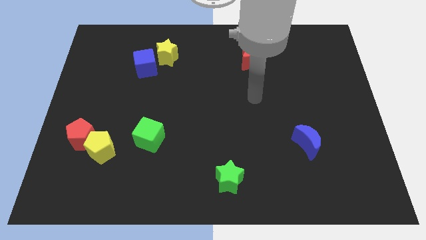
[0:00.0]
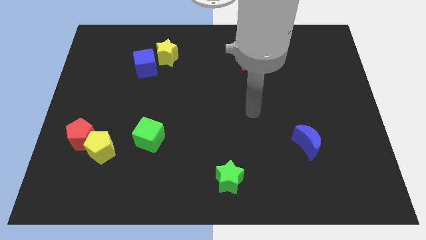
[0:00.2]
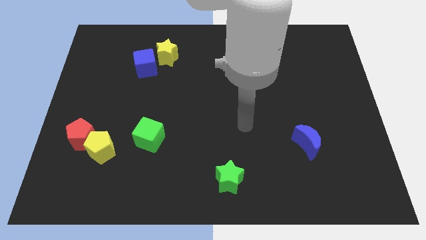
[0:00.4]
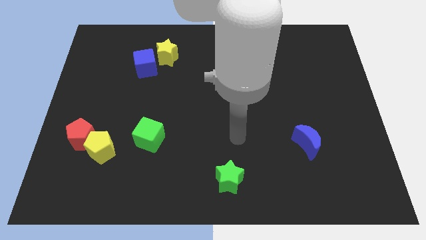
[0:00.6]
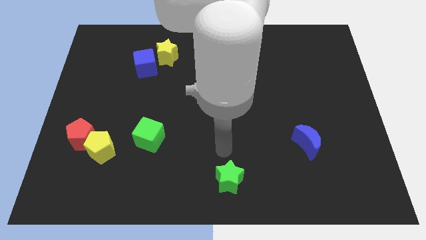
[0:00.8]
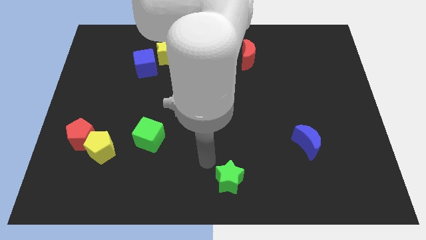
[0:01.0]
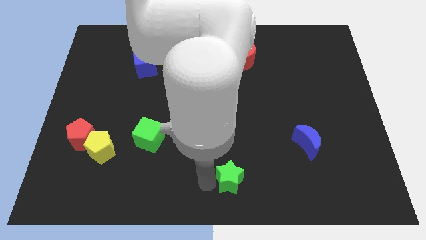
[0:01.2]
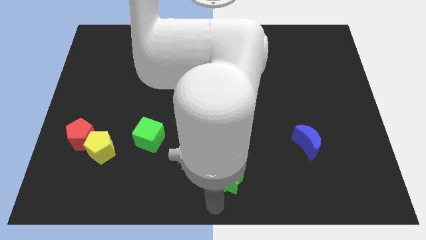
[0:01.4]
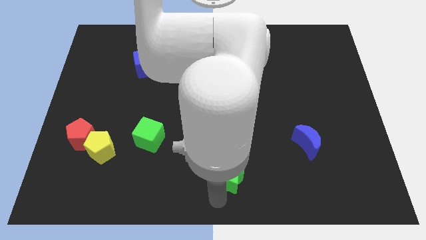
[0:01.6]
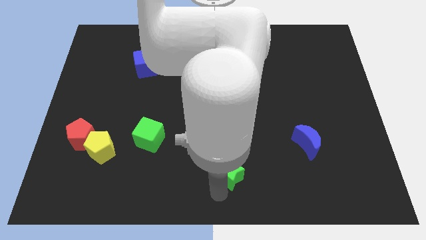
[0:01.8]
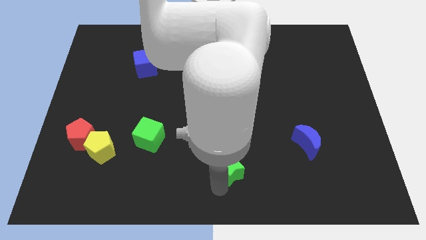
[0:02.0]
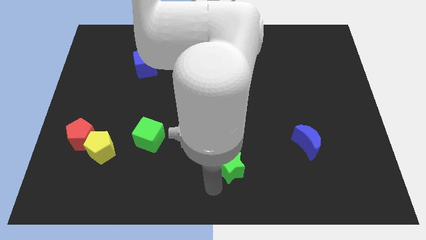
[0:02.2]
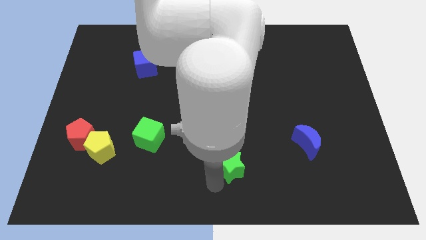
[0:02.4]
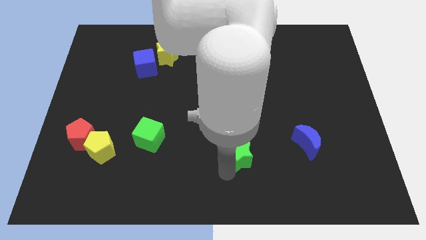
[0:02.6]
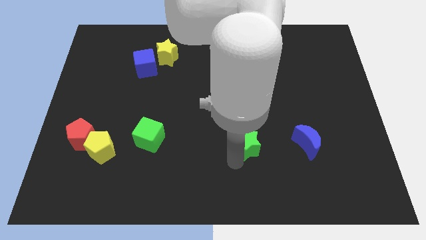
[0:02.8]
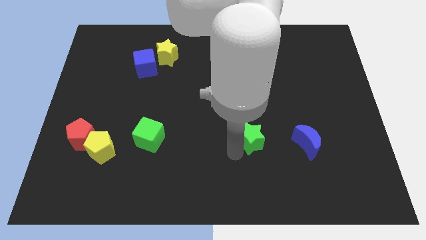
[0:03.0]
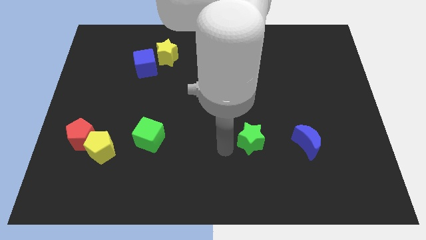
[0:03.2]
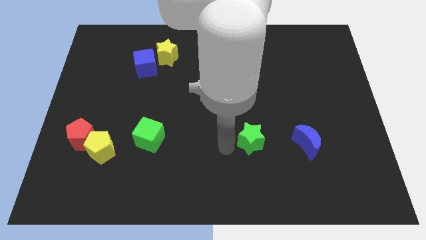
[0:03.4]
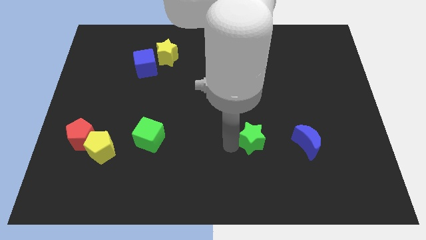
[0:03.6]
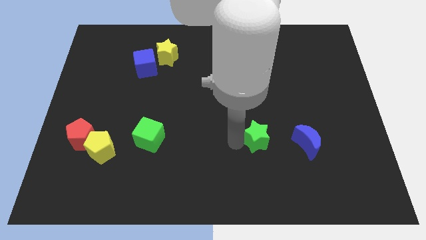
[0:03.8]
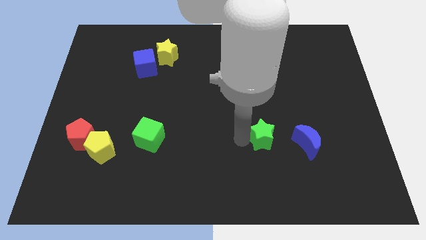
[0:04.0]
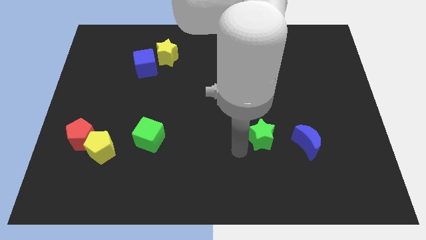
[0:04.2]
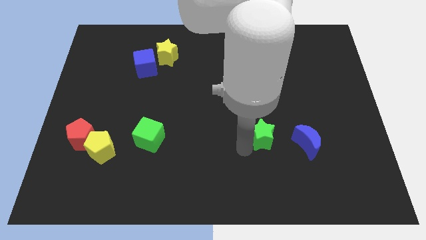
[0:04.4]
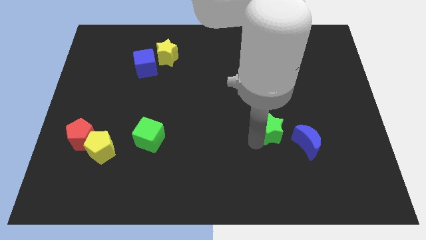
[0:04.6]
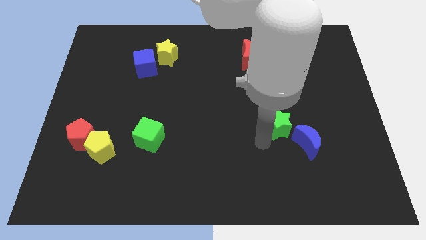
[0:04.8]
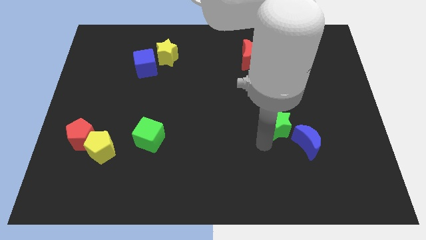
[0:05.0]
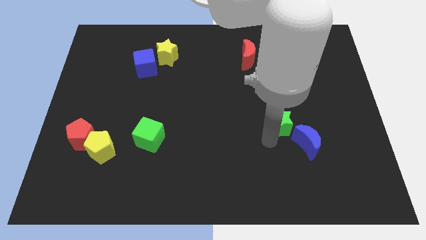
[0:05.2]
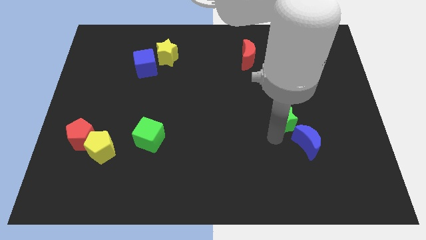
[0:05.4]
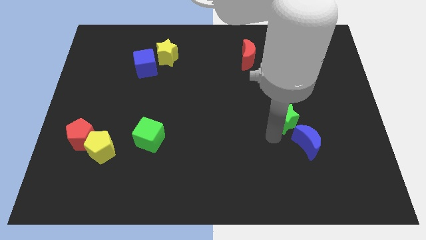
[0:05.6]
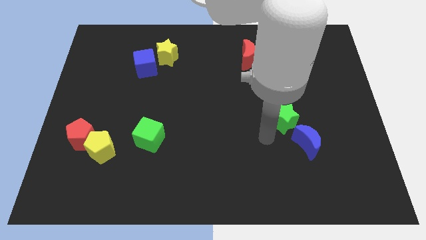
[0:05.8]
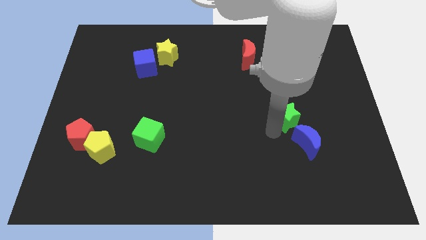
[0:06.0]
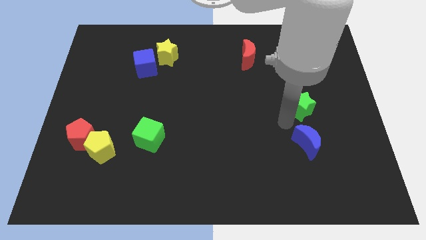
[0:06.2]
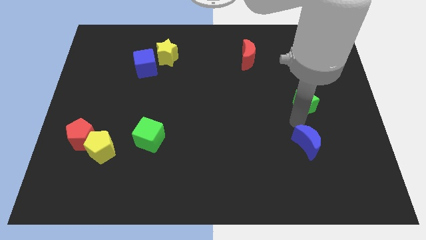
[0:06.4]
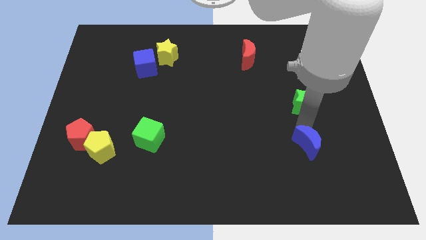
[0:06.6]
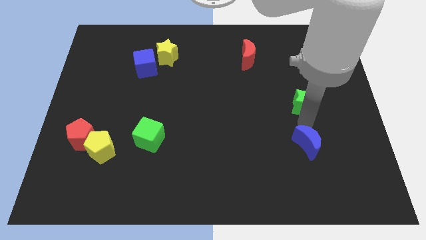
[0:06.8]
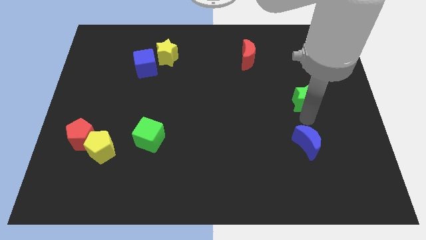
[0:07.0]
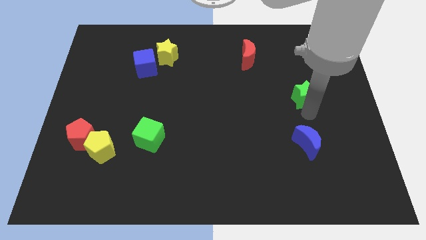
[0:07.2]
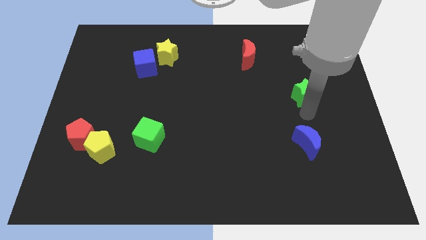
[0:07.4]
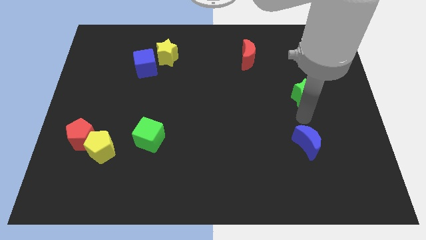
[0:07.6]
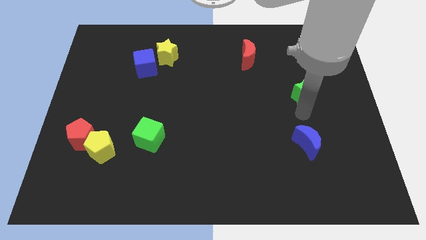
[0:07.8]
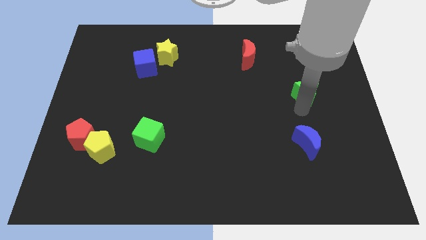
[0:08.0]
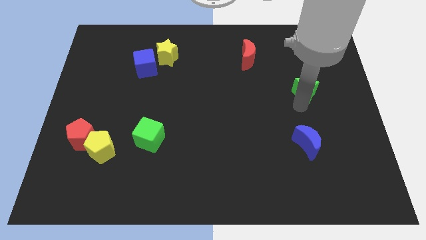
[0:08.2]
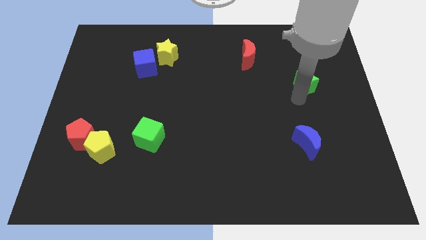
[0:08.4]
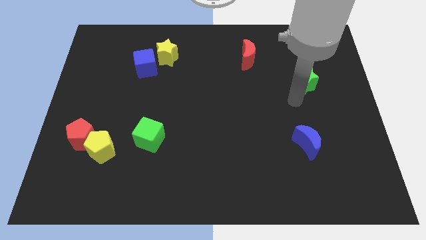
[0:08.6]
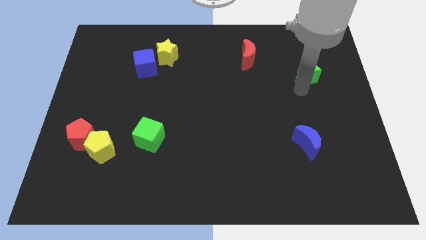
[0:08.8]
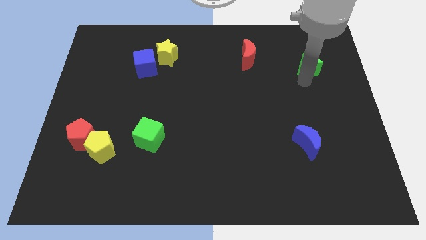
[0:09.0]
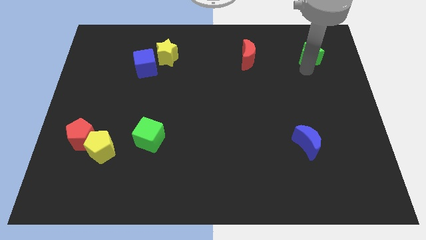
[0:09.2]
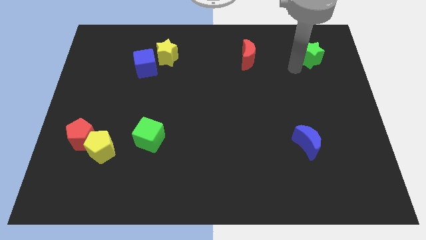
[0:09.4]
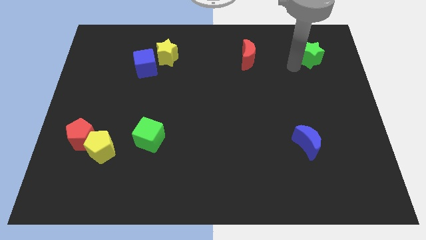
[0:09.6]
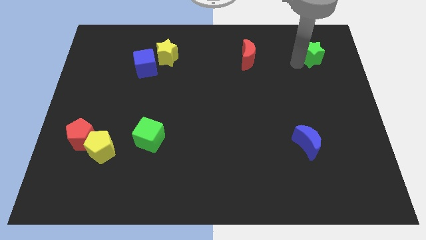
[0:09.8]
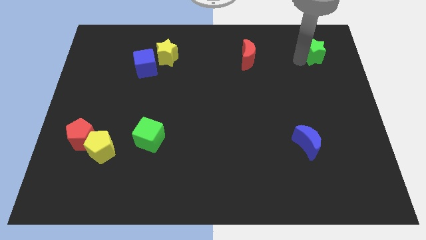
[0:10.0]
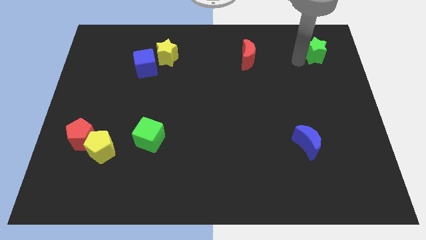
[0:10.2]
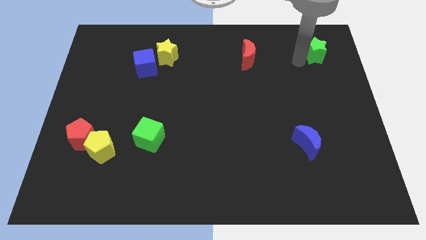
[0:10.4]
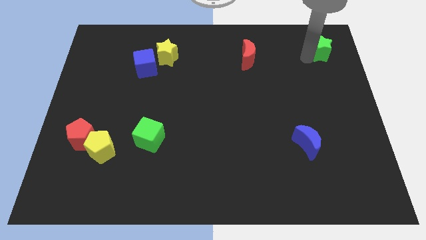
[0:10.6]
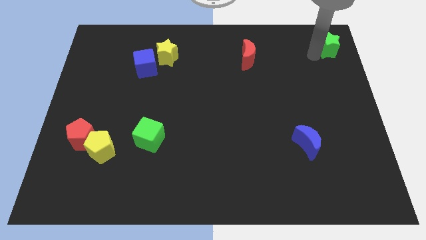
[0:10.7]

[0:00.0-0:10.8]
push the green star to the top right corner

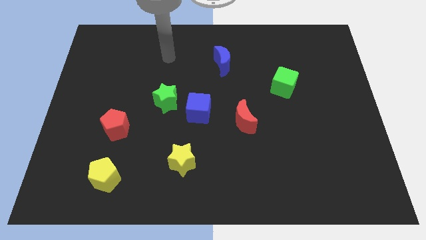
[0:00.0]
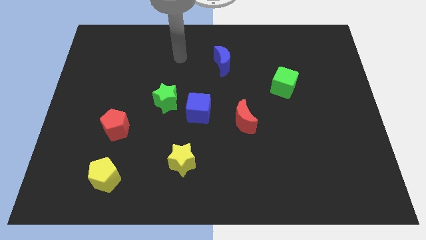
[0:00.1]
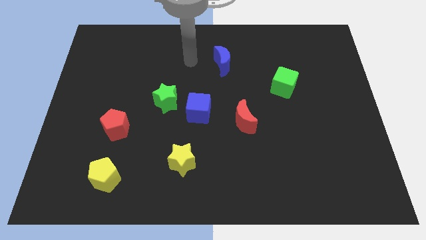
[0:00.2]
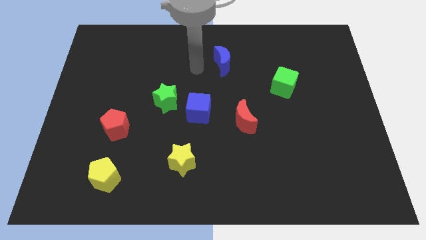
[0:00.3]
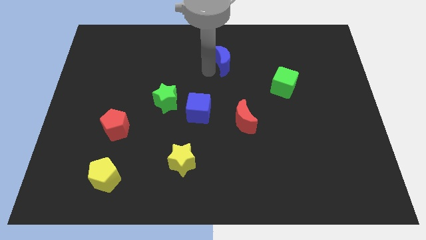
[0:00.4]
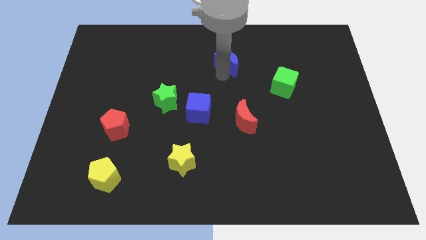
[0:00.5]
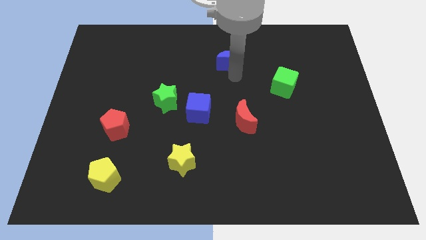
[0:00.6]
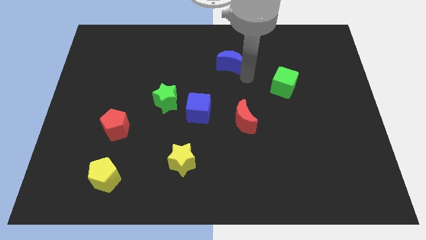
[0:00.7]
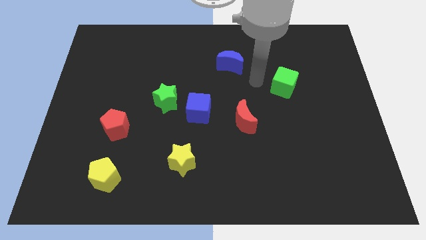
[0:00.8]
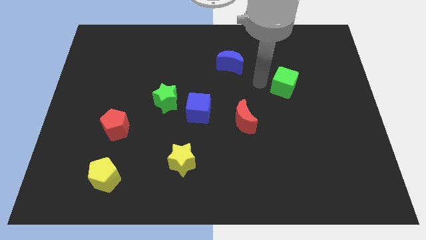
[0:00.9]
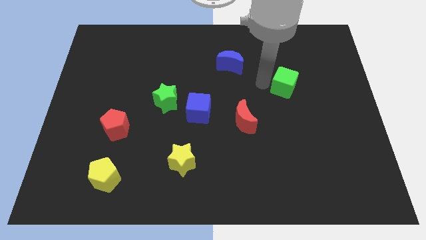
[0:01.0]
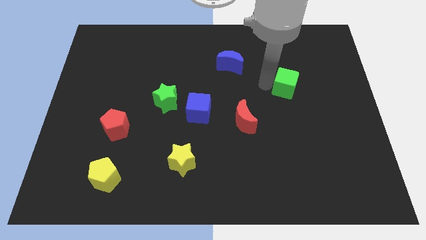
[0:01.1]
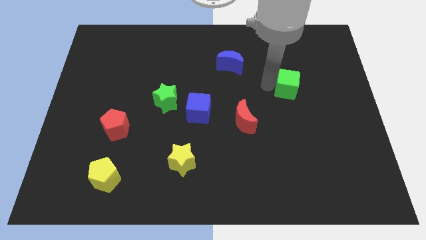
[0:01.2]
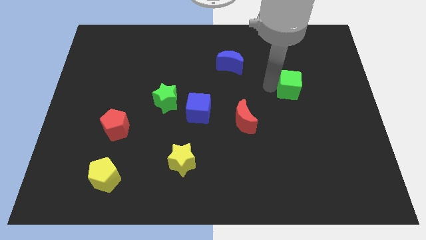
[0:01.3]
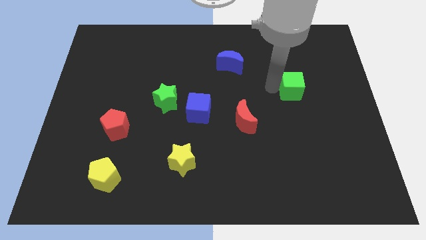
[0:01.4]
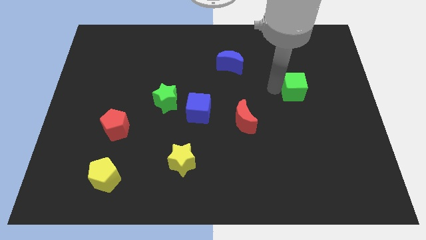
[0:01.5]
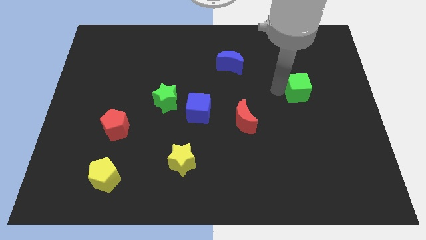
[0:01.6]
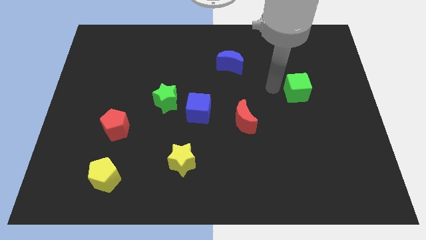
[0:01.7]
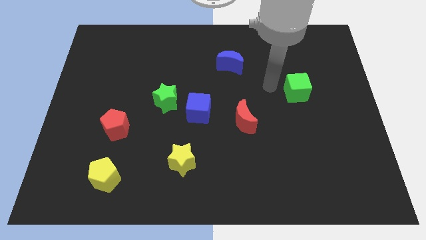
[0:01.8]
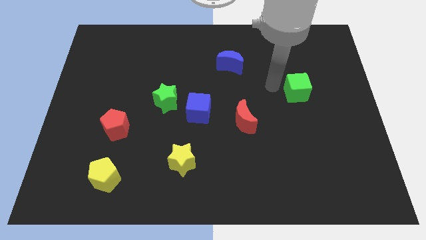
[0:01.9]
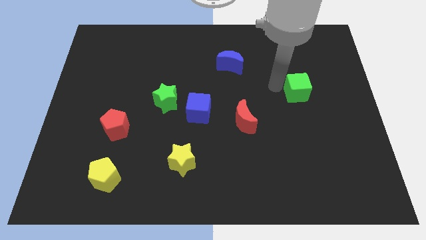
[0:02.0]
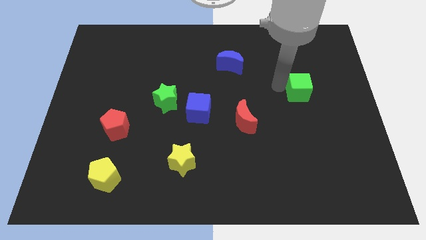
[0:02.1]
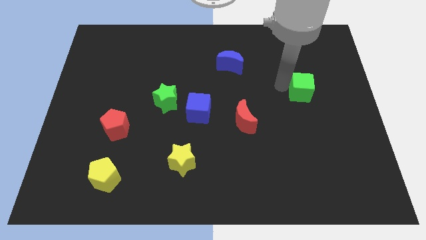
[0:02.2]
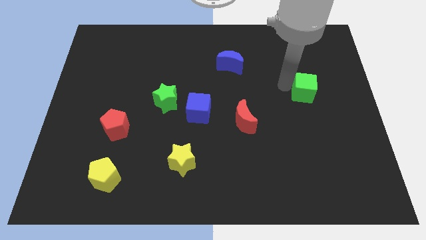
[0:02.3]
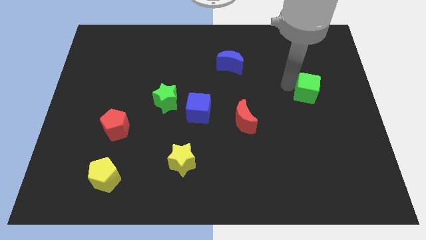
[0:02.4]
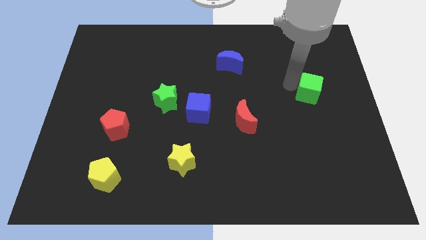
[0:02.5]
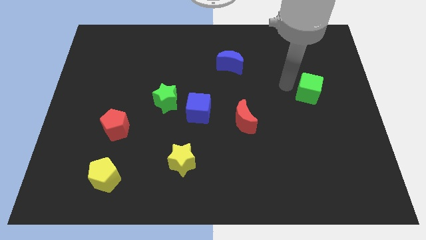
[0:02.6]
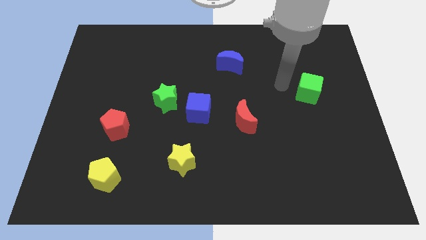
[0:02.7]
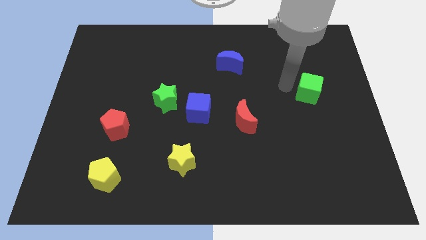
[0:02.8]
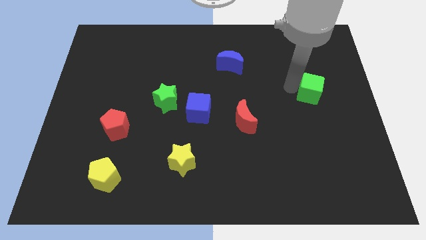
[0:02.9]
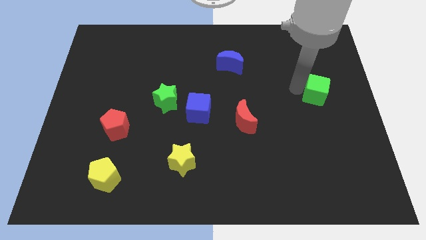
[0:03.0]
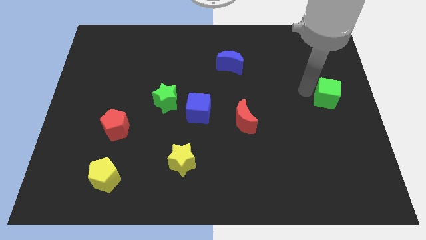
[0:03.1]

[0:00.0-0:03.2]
slide the green cube to the right side of the board
